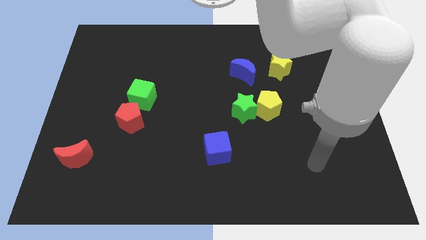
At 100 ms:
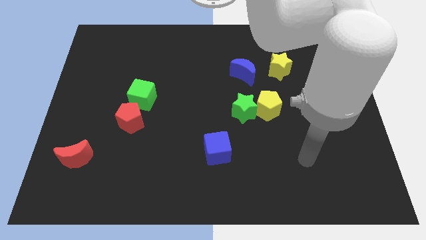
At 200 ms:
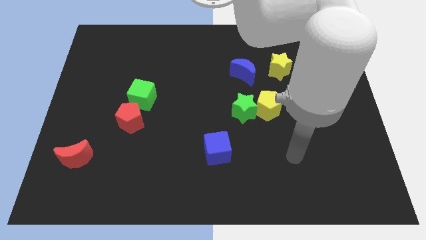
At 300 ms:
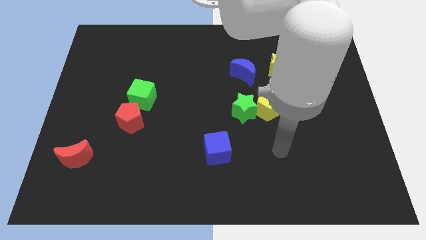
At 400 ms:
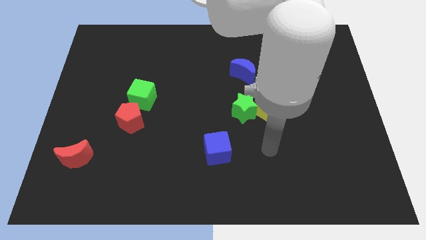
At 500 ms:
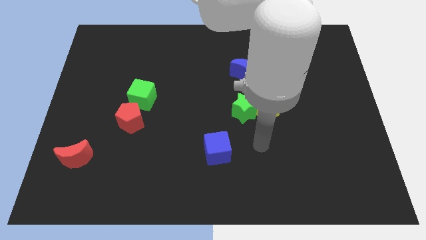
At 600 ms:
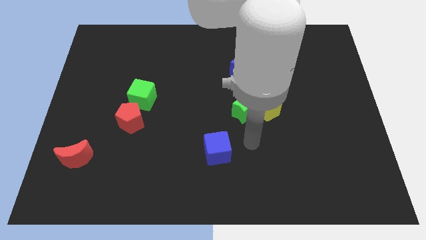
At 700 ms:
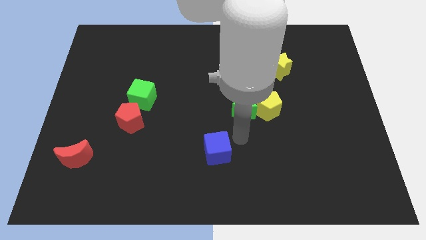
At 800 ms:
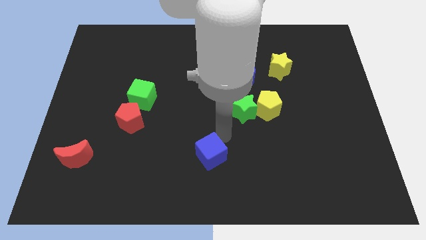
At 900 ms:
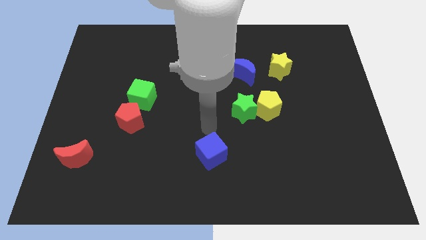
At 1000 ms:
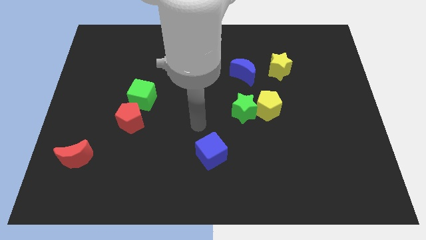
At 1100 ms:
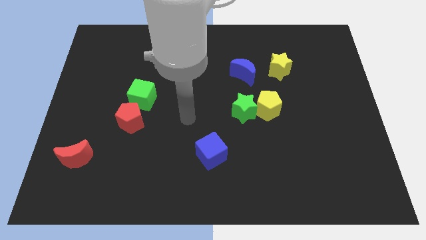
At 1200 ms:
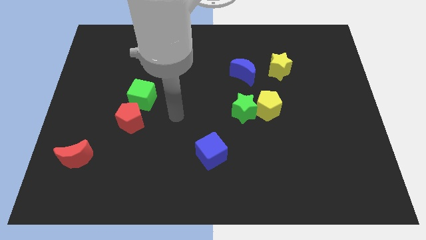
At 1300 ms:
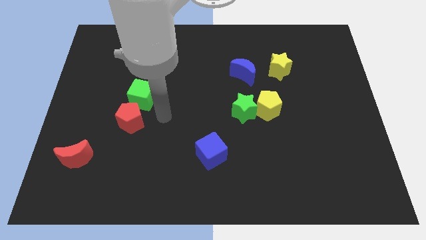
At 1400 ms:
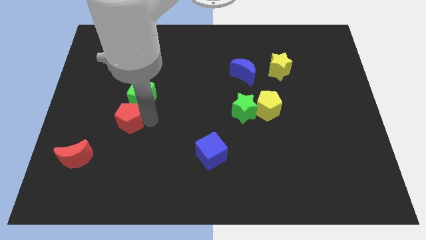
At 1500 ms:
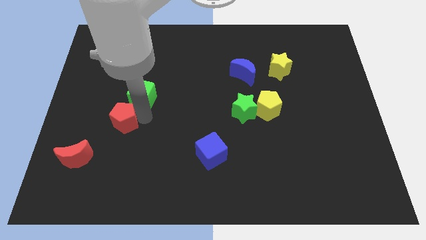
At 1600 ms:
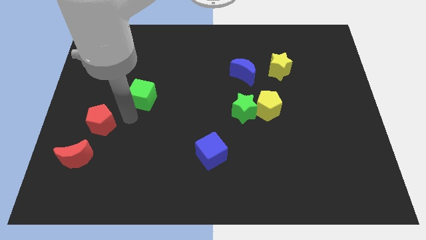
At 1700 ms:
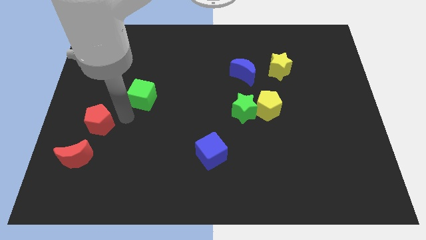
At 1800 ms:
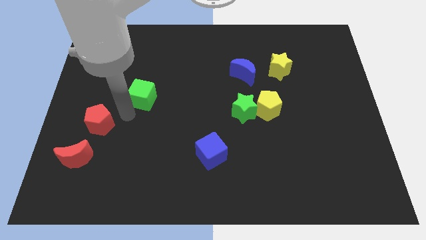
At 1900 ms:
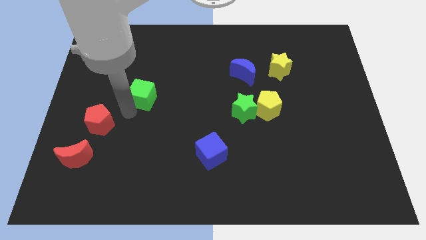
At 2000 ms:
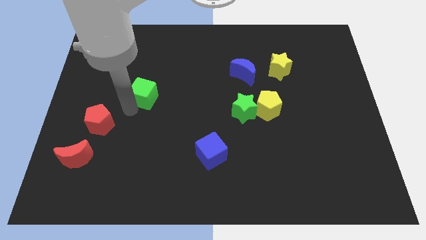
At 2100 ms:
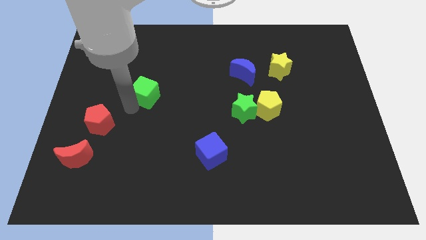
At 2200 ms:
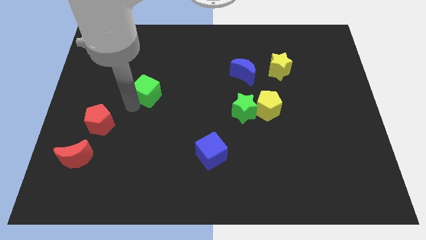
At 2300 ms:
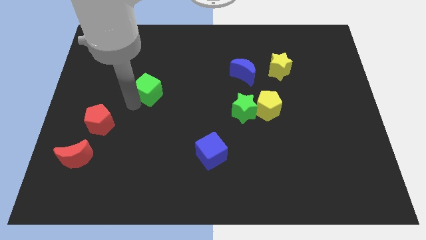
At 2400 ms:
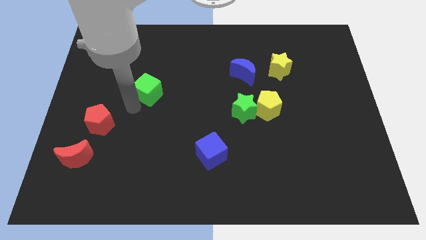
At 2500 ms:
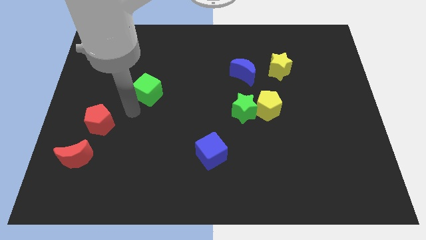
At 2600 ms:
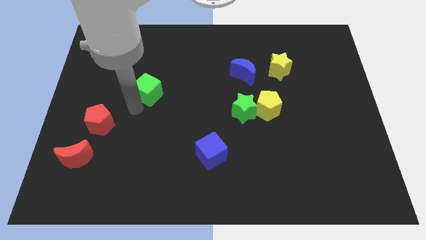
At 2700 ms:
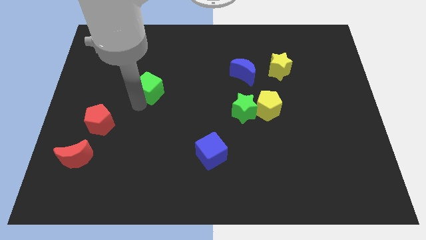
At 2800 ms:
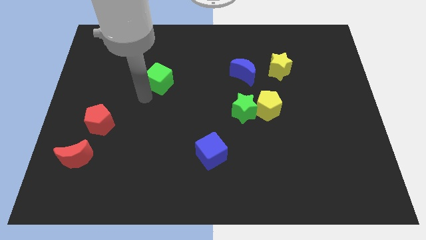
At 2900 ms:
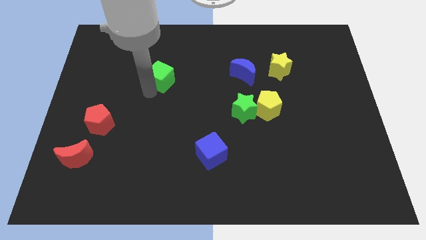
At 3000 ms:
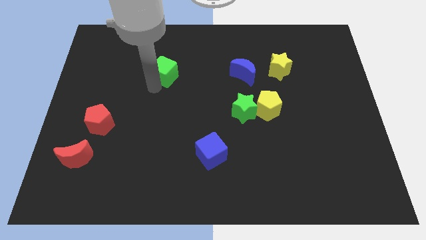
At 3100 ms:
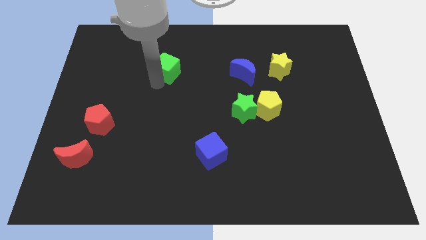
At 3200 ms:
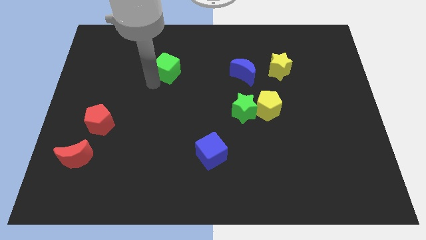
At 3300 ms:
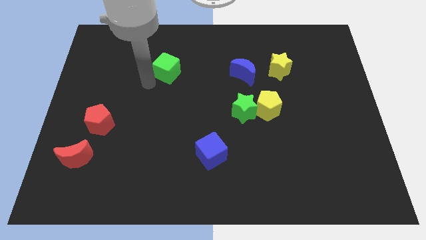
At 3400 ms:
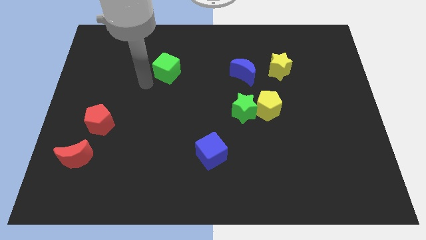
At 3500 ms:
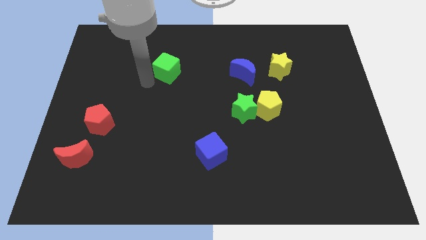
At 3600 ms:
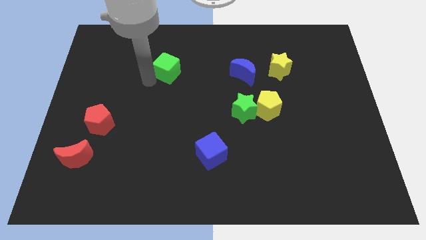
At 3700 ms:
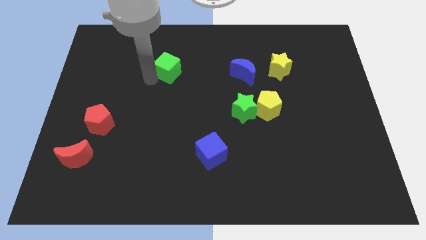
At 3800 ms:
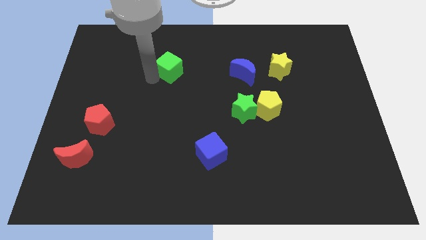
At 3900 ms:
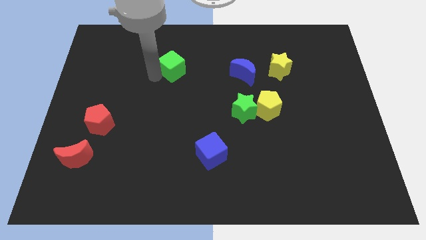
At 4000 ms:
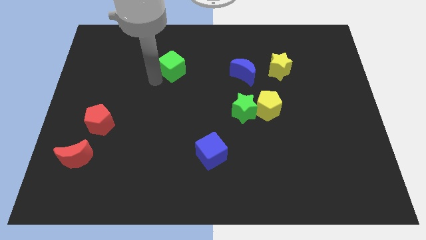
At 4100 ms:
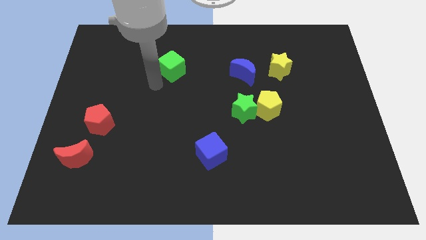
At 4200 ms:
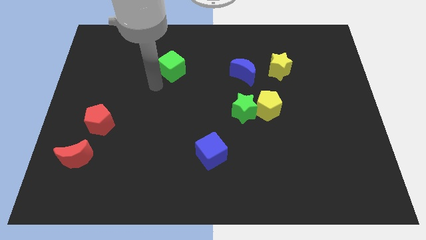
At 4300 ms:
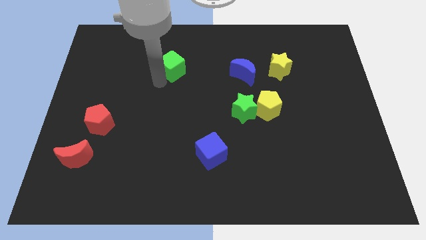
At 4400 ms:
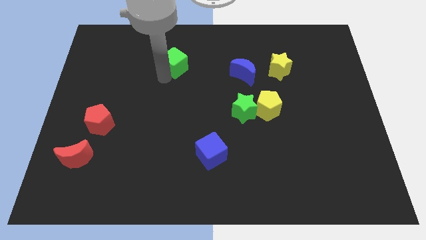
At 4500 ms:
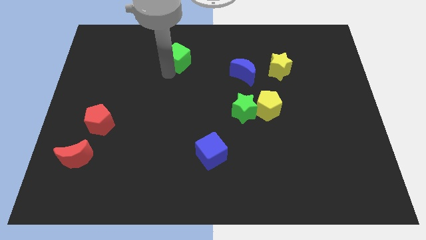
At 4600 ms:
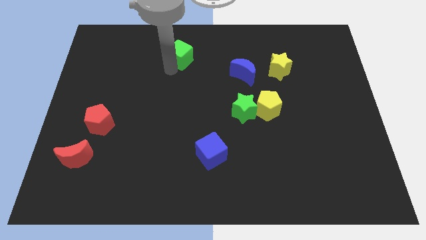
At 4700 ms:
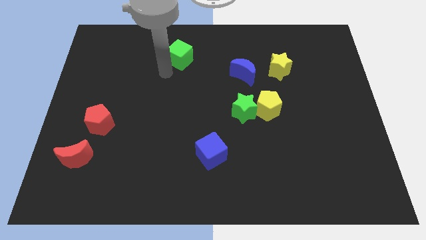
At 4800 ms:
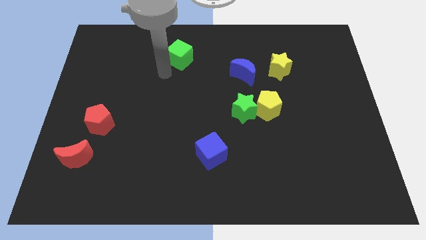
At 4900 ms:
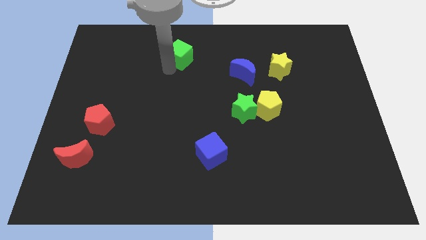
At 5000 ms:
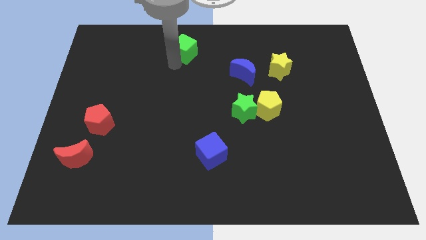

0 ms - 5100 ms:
move the green cube to the towards your base

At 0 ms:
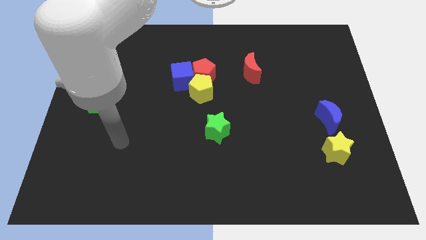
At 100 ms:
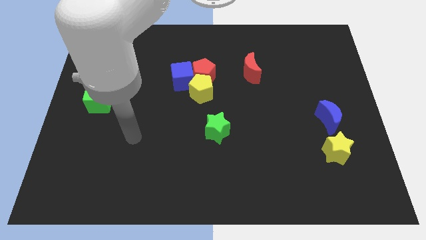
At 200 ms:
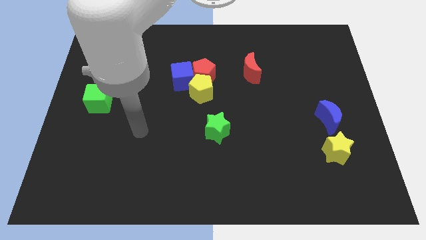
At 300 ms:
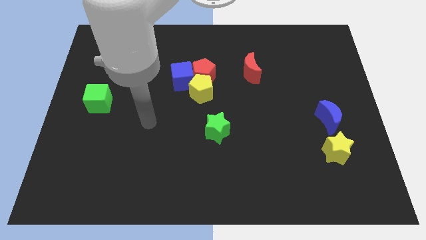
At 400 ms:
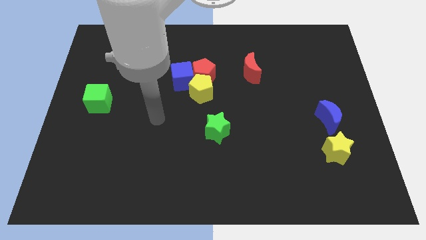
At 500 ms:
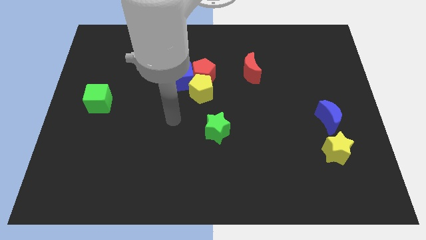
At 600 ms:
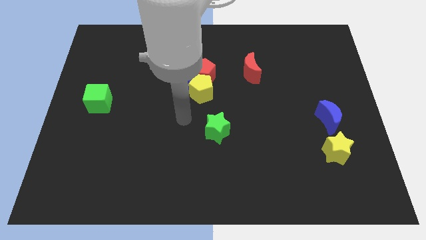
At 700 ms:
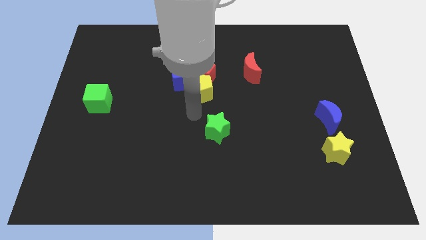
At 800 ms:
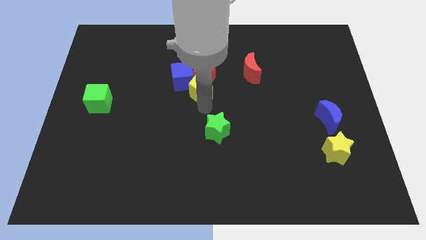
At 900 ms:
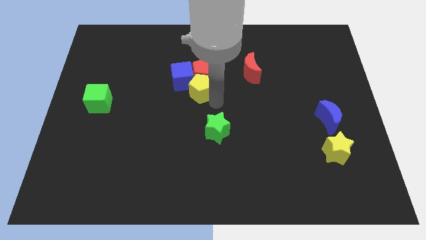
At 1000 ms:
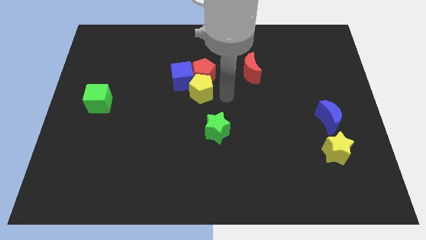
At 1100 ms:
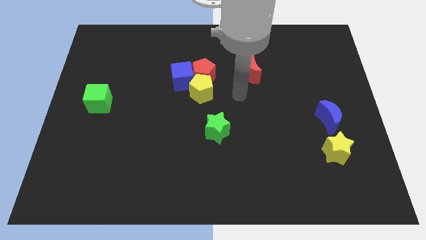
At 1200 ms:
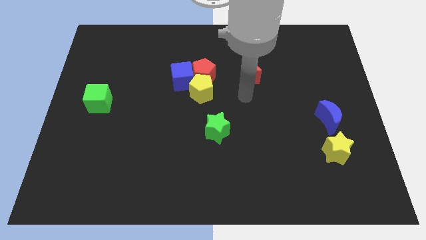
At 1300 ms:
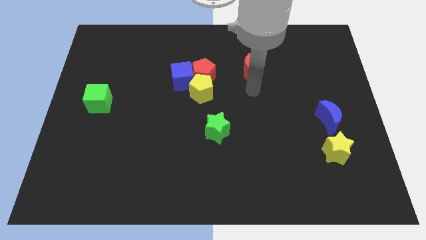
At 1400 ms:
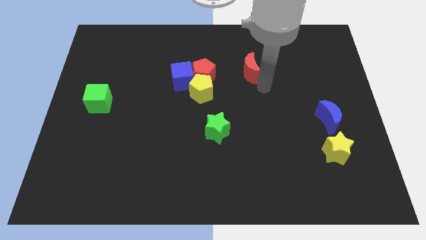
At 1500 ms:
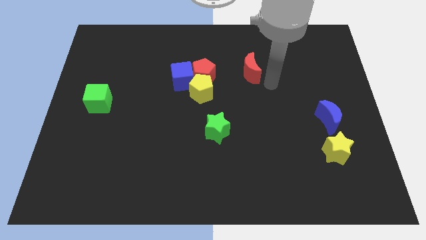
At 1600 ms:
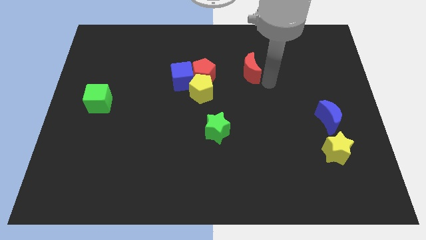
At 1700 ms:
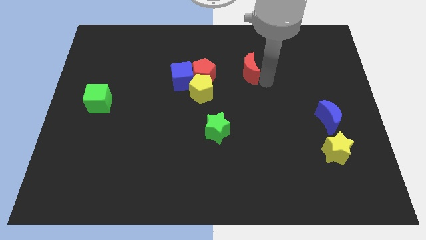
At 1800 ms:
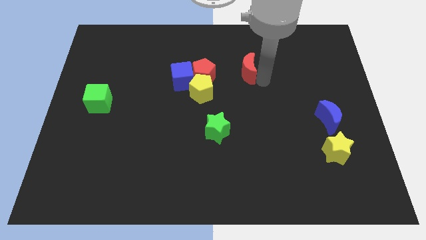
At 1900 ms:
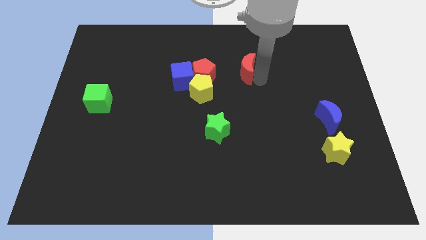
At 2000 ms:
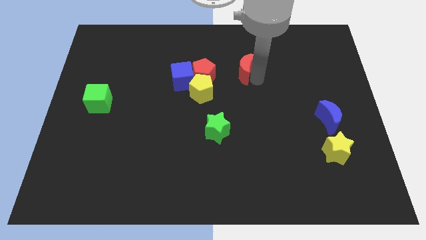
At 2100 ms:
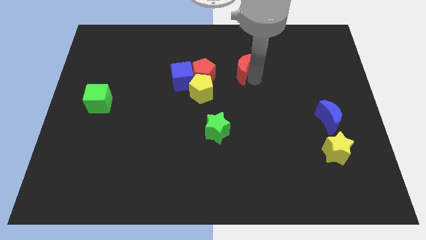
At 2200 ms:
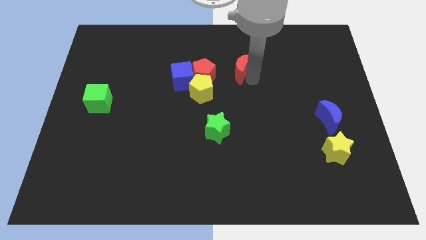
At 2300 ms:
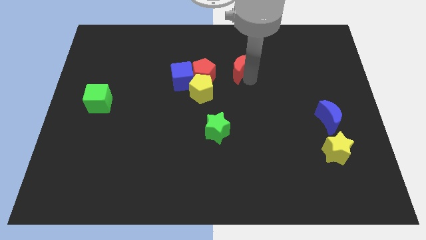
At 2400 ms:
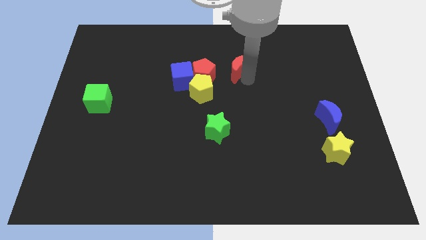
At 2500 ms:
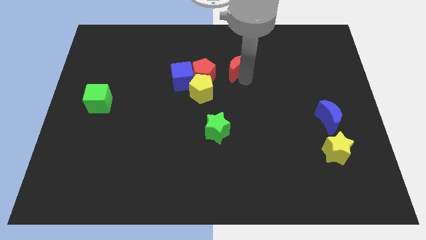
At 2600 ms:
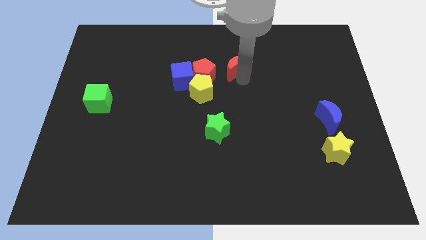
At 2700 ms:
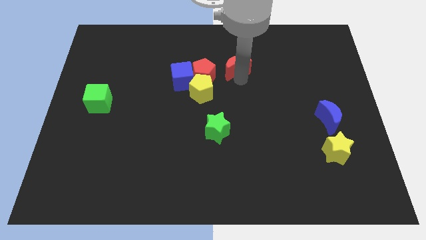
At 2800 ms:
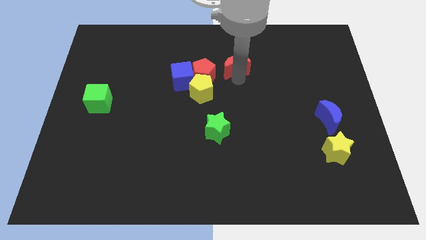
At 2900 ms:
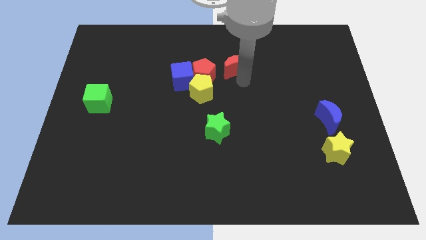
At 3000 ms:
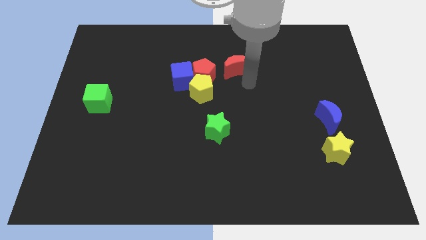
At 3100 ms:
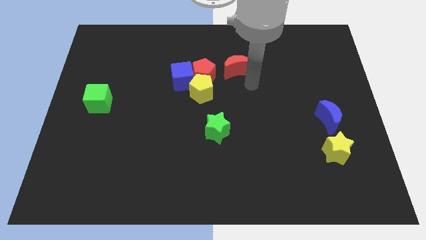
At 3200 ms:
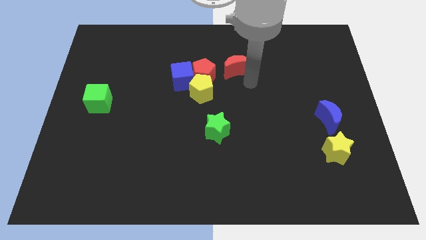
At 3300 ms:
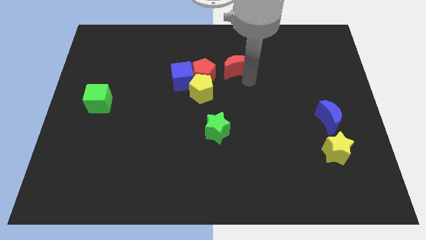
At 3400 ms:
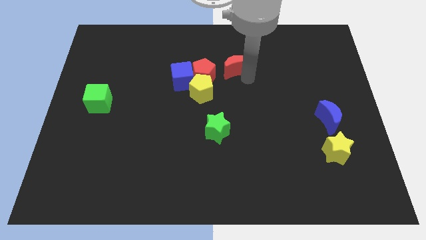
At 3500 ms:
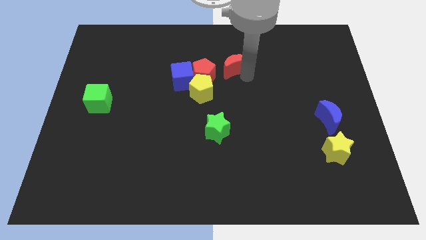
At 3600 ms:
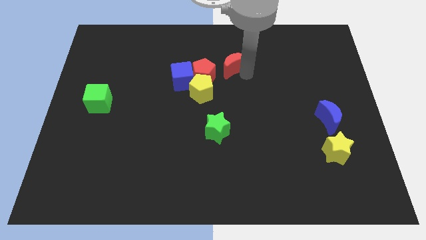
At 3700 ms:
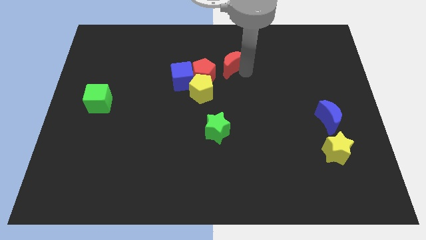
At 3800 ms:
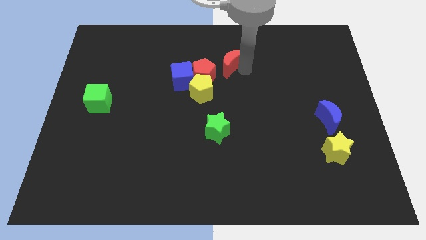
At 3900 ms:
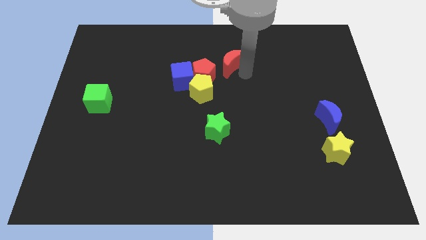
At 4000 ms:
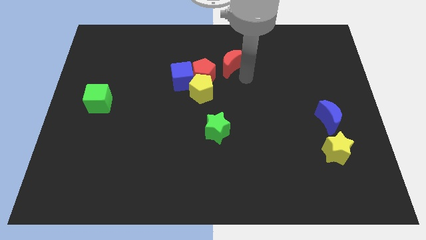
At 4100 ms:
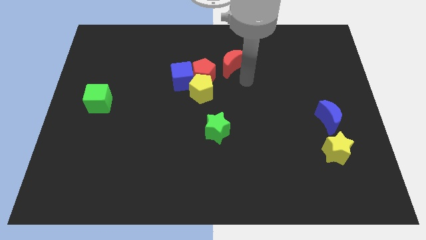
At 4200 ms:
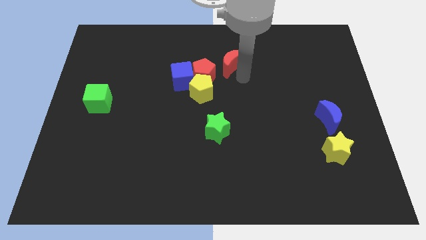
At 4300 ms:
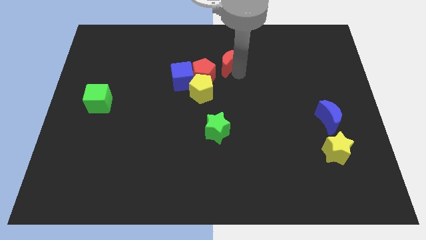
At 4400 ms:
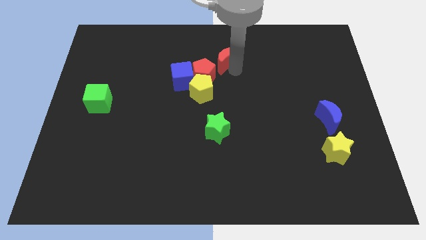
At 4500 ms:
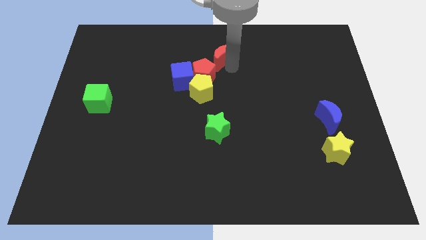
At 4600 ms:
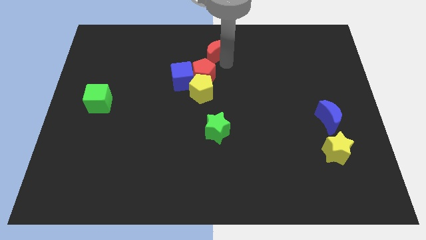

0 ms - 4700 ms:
slide the red moon to the towards your base
